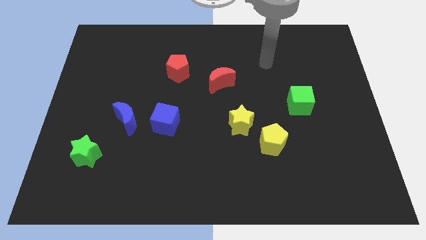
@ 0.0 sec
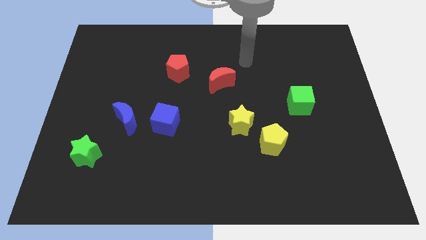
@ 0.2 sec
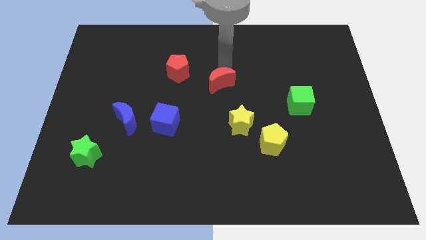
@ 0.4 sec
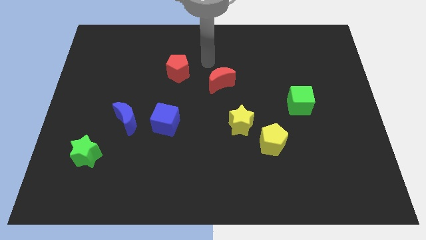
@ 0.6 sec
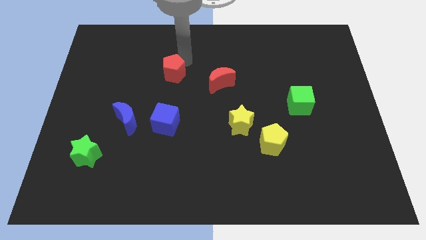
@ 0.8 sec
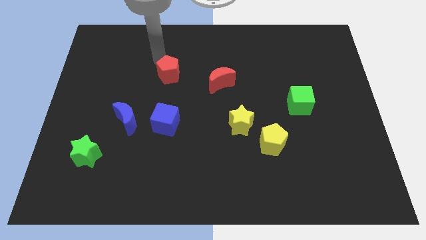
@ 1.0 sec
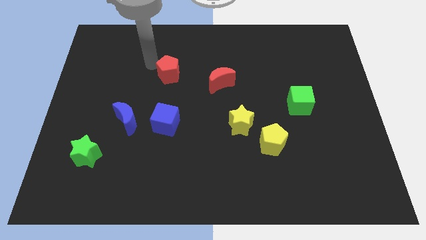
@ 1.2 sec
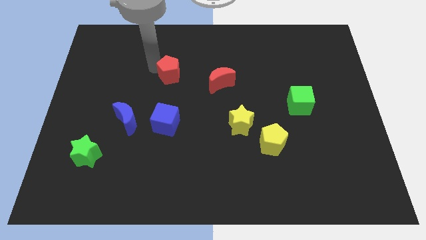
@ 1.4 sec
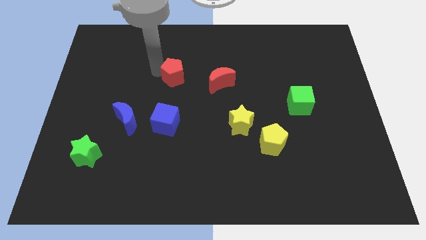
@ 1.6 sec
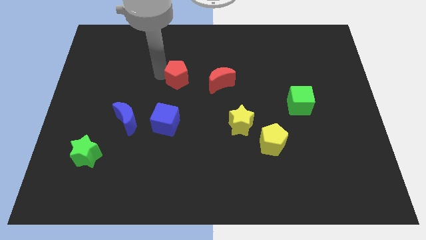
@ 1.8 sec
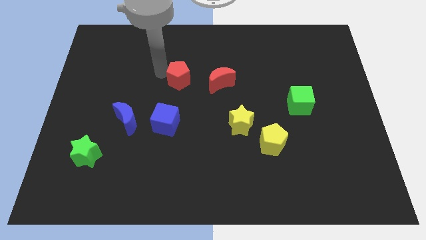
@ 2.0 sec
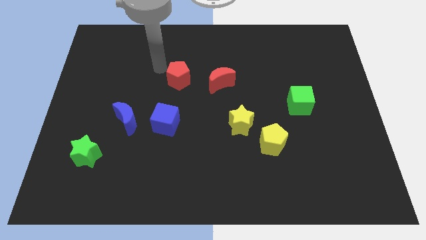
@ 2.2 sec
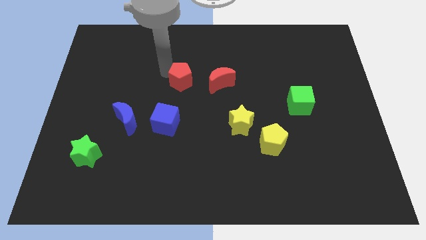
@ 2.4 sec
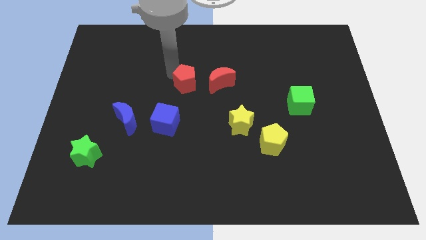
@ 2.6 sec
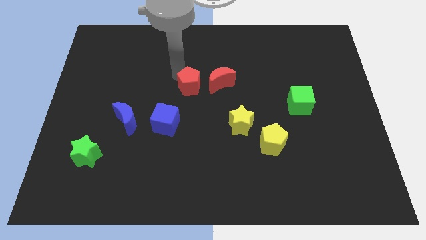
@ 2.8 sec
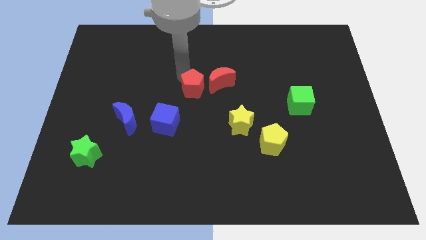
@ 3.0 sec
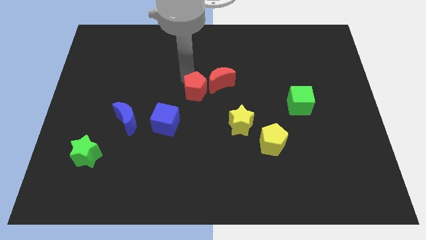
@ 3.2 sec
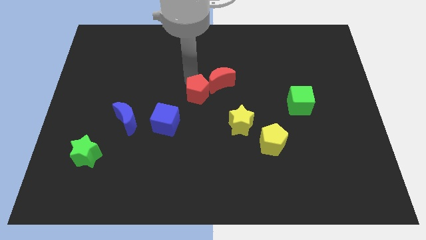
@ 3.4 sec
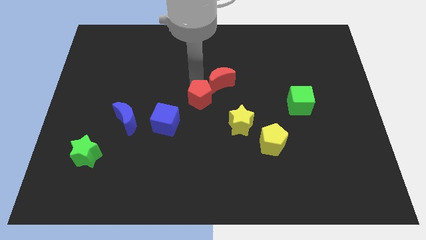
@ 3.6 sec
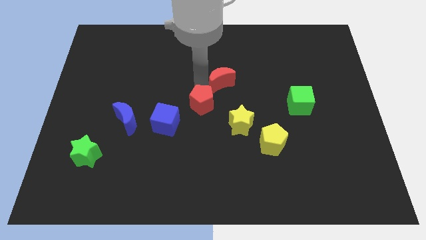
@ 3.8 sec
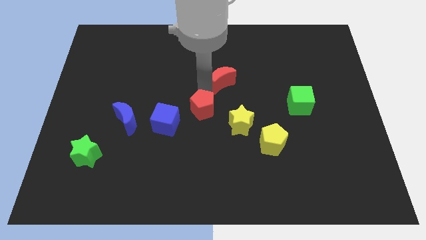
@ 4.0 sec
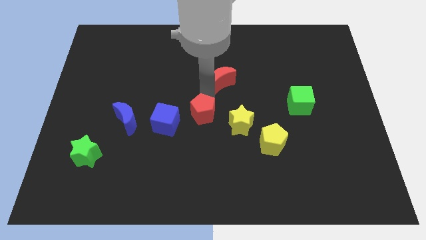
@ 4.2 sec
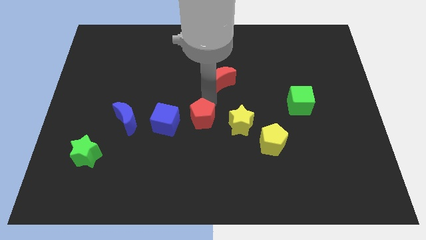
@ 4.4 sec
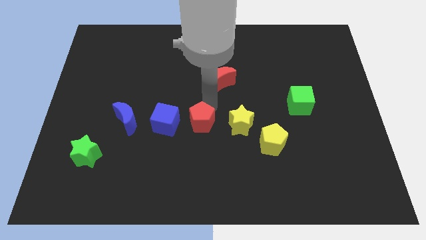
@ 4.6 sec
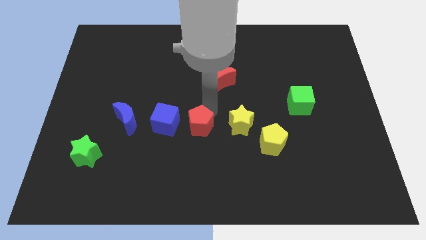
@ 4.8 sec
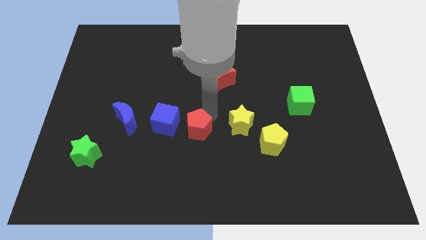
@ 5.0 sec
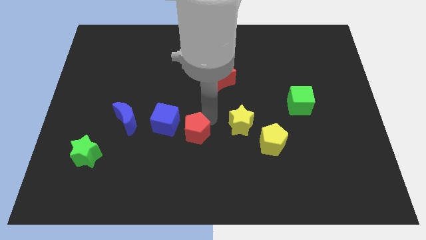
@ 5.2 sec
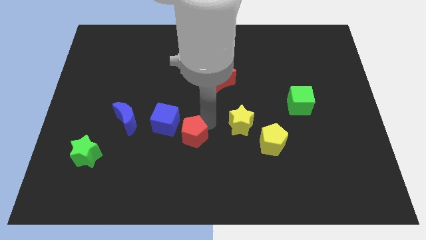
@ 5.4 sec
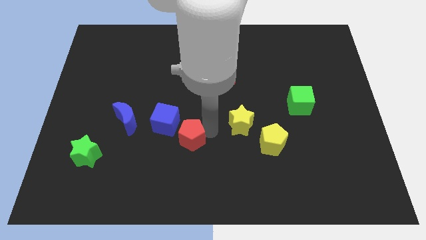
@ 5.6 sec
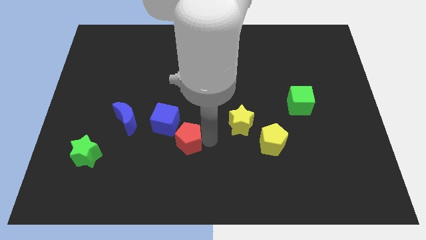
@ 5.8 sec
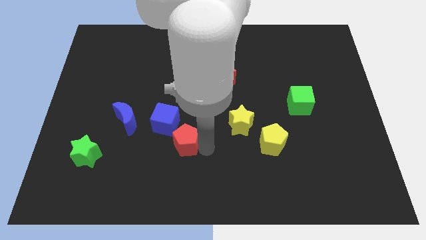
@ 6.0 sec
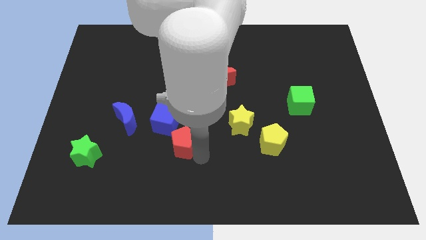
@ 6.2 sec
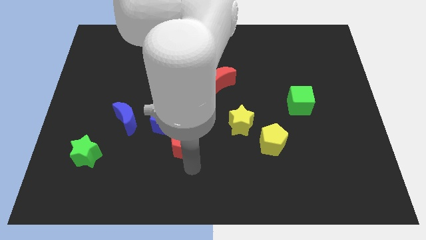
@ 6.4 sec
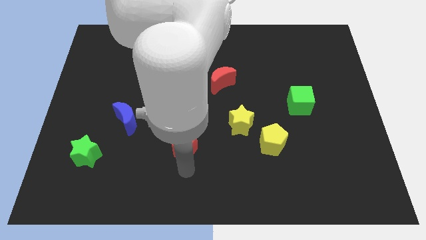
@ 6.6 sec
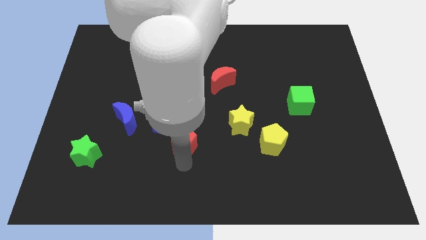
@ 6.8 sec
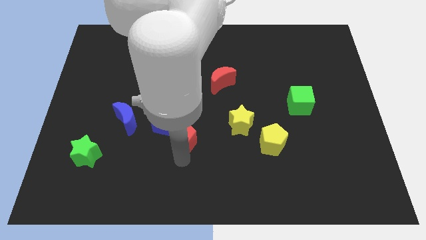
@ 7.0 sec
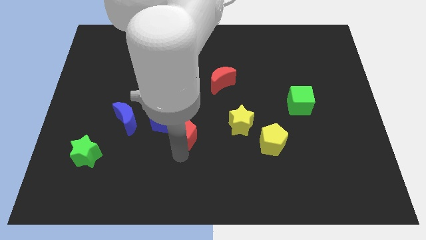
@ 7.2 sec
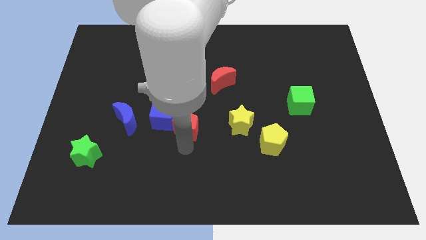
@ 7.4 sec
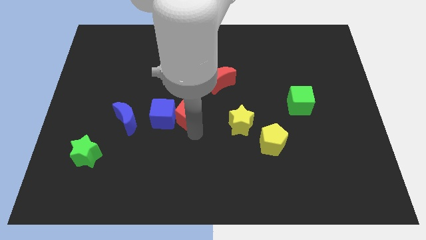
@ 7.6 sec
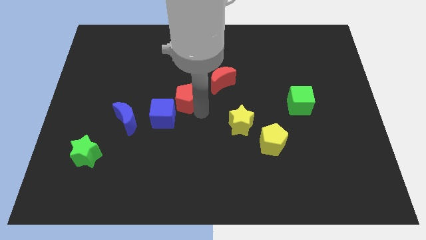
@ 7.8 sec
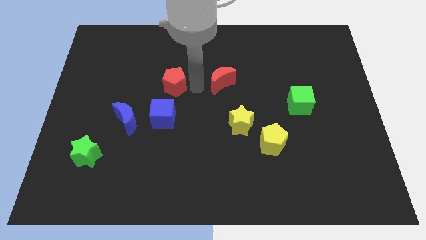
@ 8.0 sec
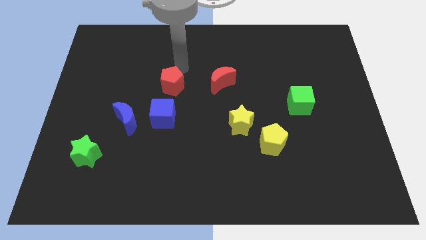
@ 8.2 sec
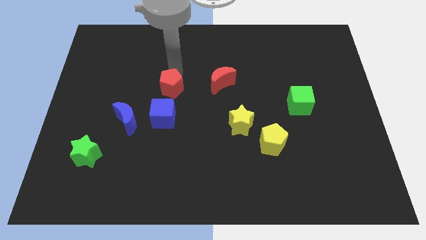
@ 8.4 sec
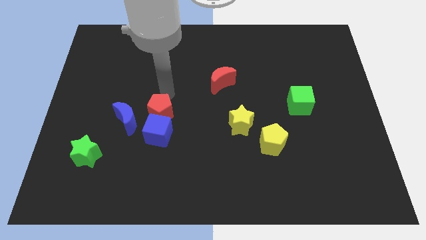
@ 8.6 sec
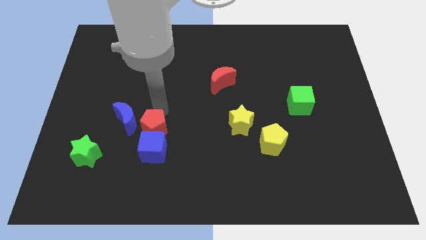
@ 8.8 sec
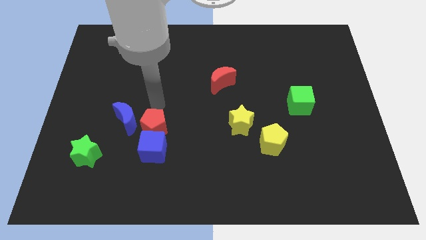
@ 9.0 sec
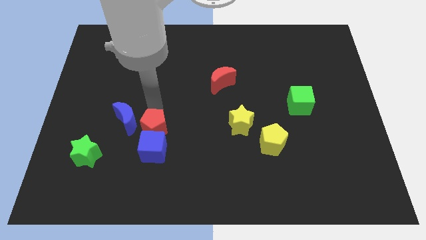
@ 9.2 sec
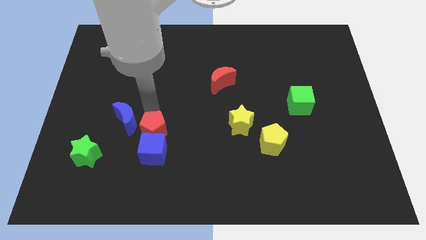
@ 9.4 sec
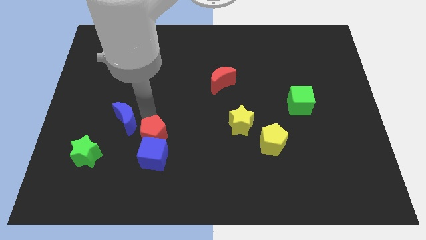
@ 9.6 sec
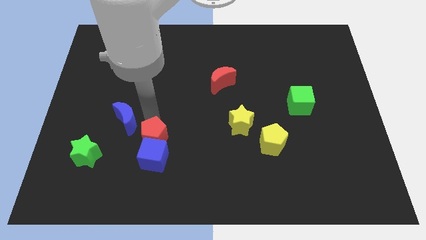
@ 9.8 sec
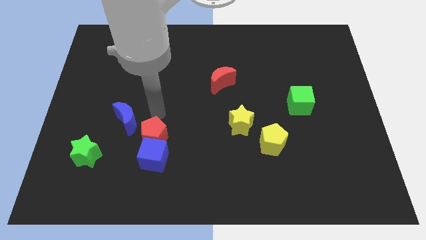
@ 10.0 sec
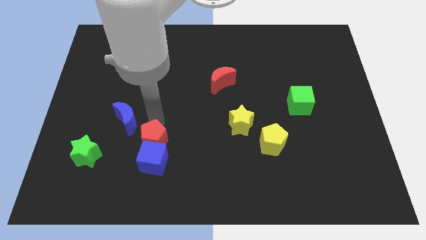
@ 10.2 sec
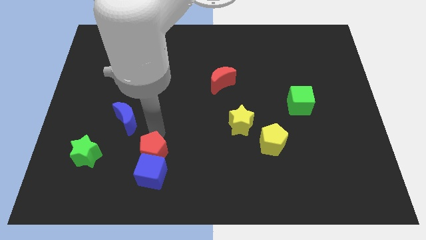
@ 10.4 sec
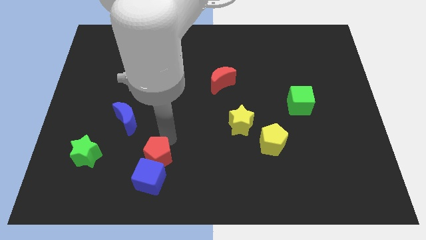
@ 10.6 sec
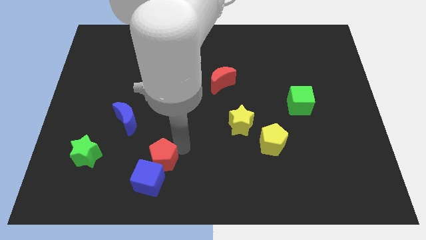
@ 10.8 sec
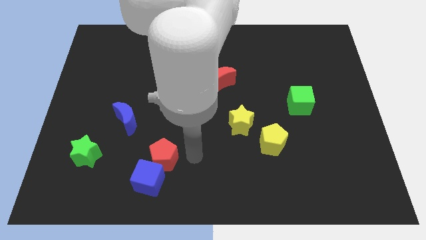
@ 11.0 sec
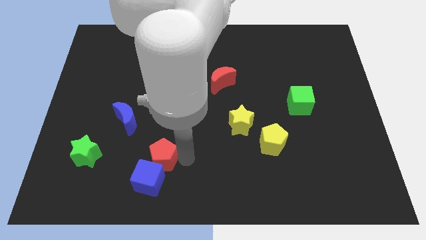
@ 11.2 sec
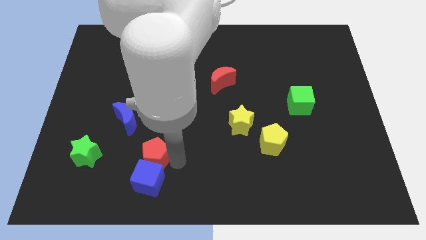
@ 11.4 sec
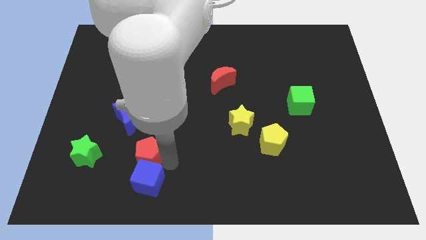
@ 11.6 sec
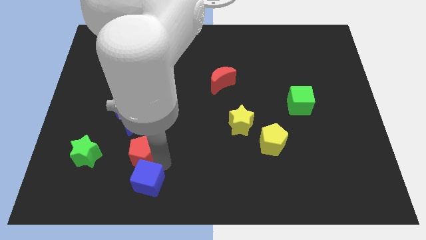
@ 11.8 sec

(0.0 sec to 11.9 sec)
push the red pentagon to the bottom side of the blue moon

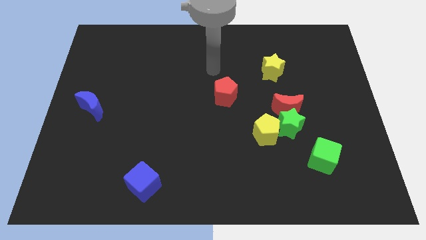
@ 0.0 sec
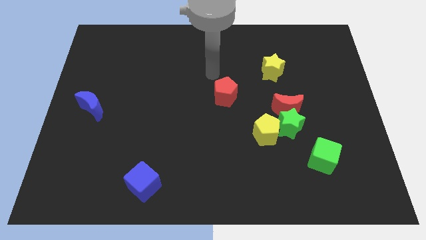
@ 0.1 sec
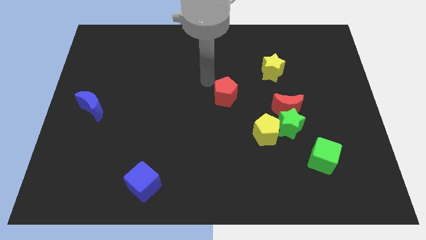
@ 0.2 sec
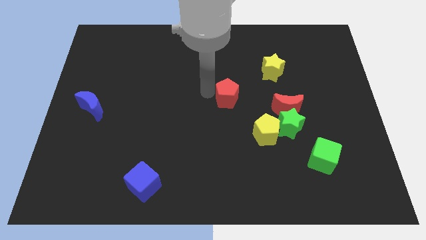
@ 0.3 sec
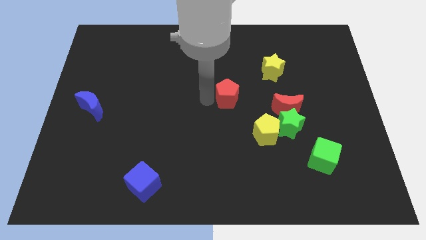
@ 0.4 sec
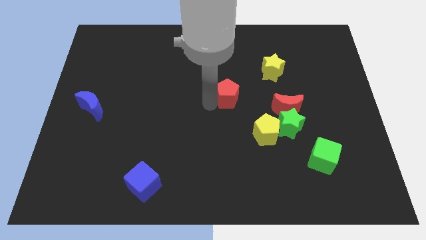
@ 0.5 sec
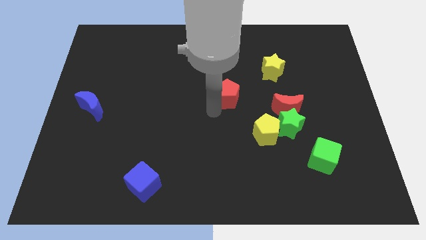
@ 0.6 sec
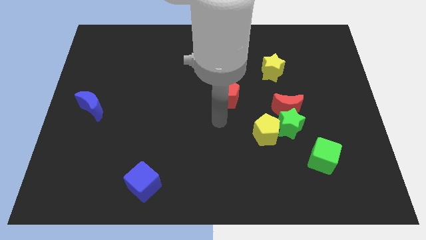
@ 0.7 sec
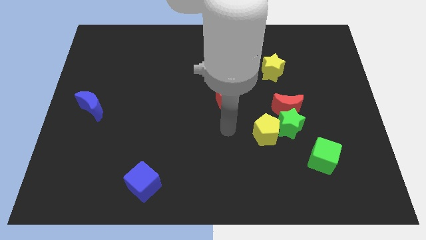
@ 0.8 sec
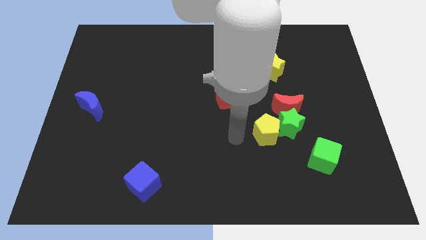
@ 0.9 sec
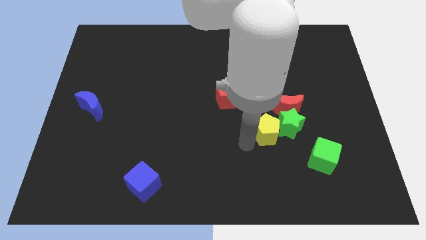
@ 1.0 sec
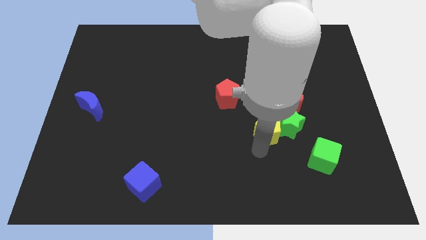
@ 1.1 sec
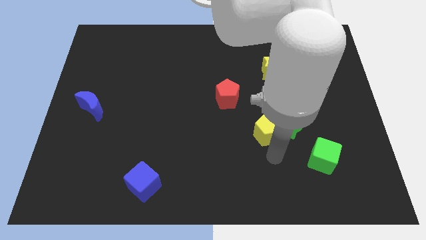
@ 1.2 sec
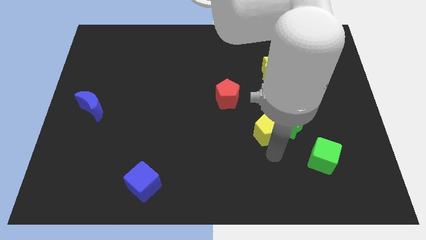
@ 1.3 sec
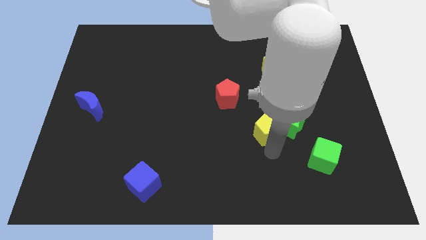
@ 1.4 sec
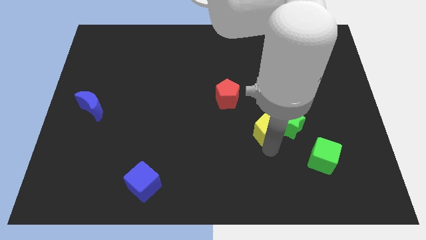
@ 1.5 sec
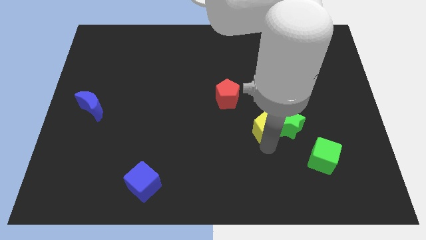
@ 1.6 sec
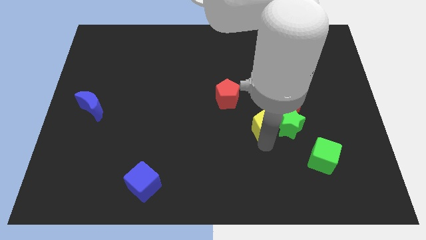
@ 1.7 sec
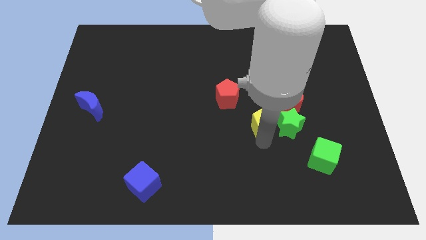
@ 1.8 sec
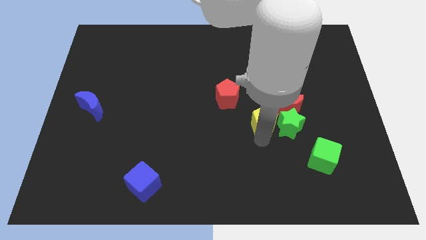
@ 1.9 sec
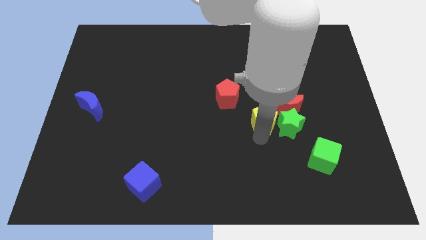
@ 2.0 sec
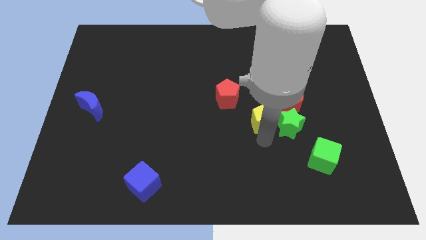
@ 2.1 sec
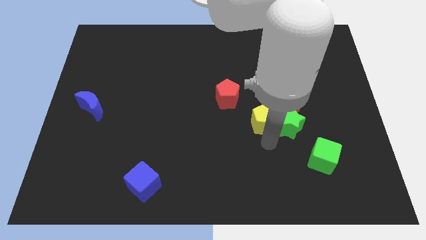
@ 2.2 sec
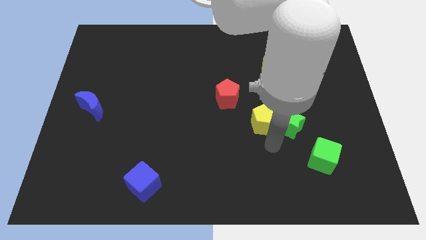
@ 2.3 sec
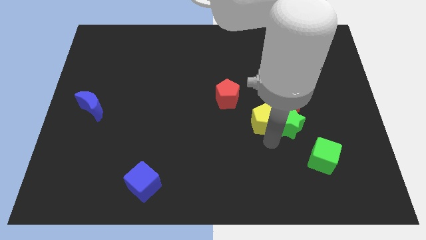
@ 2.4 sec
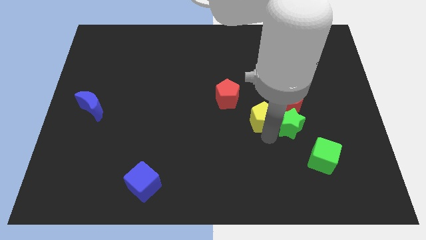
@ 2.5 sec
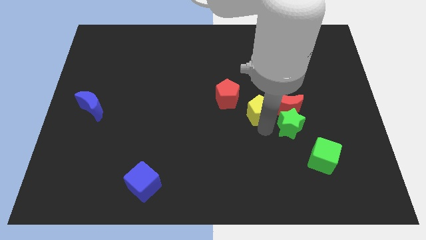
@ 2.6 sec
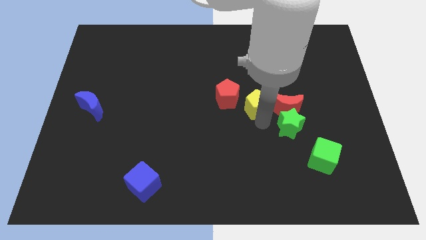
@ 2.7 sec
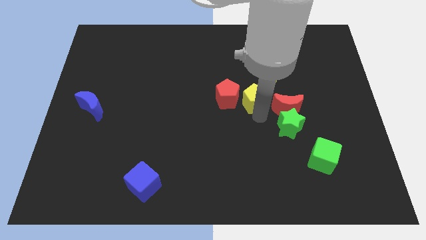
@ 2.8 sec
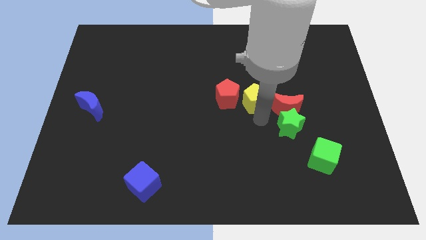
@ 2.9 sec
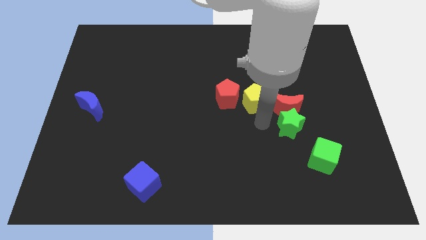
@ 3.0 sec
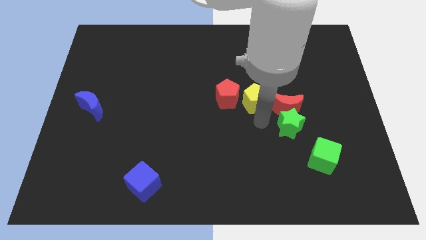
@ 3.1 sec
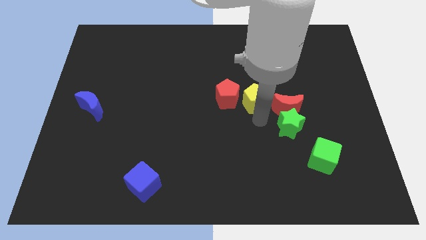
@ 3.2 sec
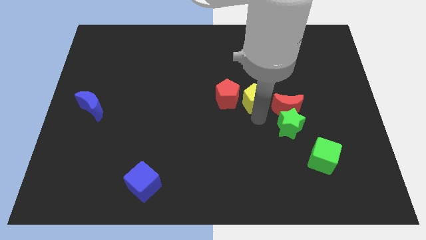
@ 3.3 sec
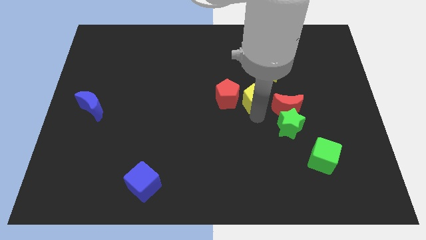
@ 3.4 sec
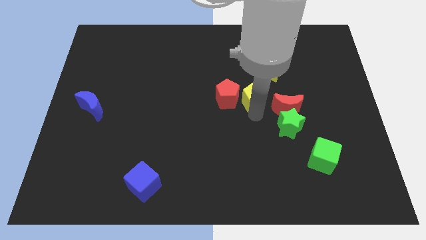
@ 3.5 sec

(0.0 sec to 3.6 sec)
push the yellow pentagon to the top right side of the red pentagon
